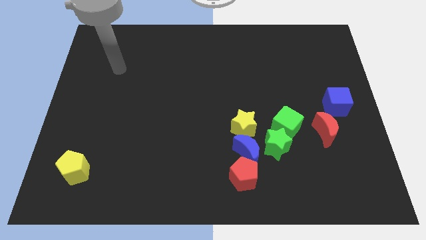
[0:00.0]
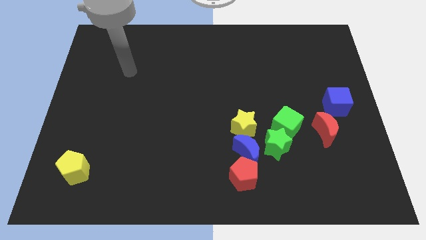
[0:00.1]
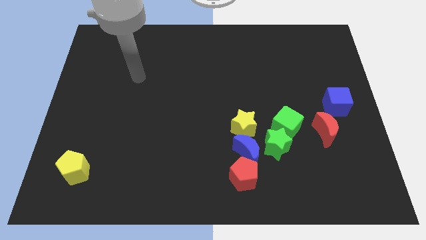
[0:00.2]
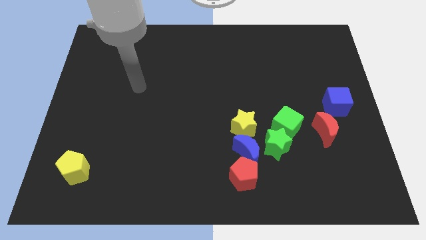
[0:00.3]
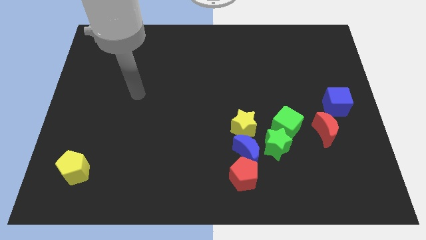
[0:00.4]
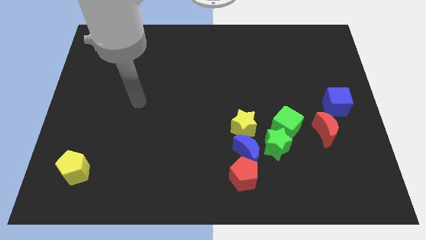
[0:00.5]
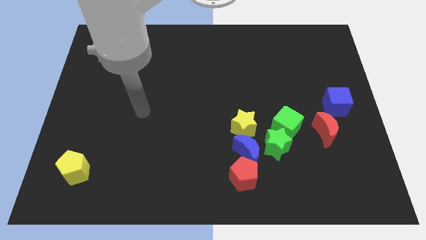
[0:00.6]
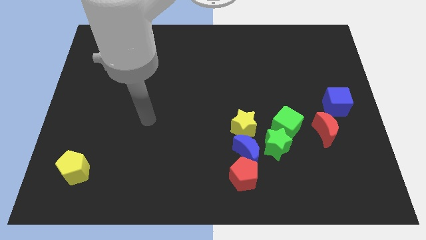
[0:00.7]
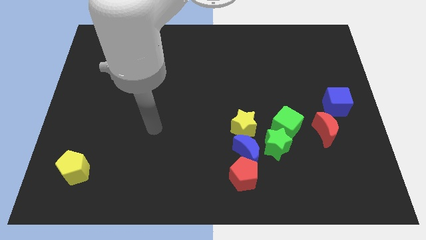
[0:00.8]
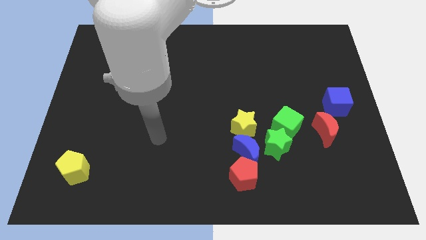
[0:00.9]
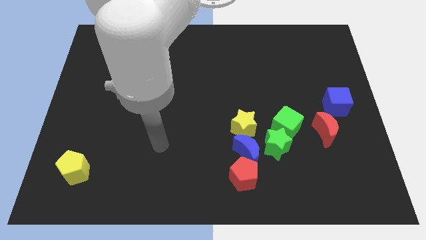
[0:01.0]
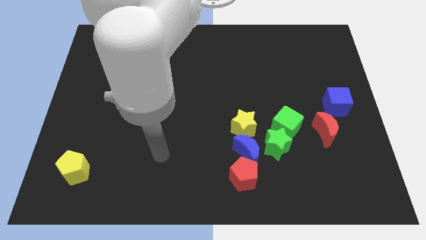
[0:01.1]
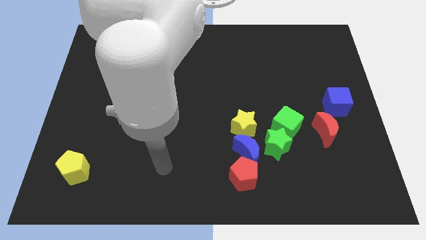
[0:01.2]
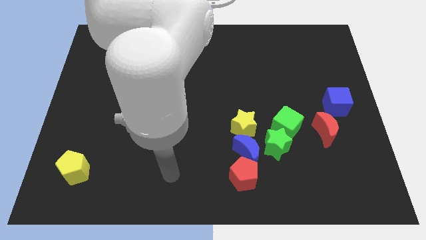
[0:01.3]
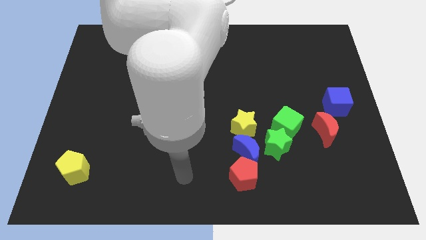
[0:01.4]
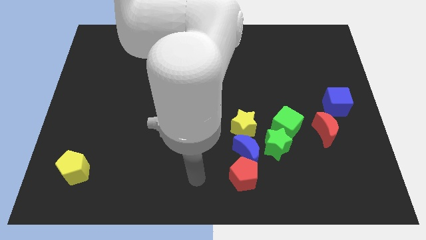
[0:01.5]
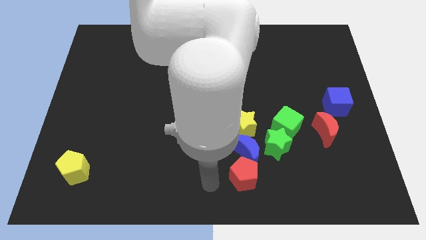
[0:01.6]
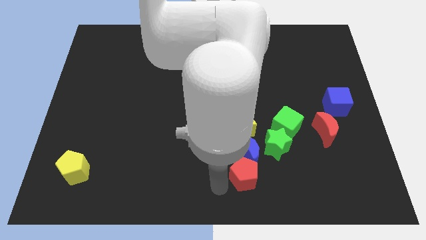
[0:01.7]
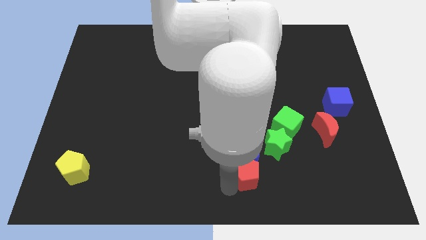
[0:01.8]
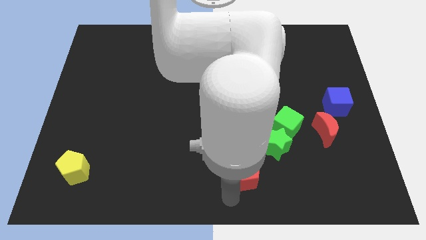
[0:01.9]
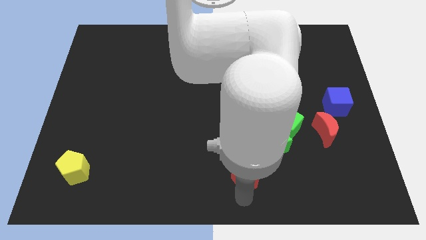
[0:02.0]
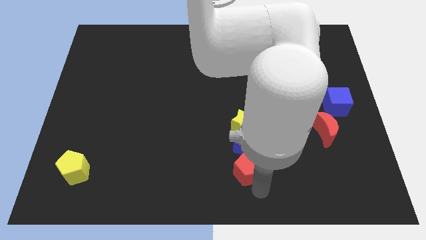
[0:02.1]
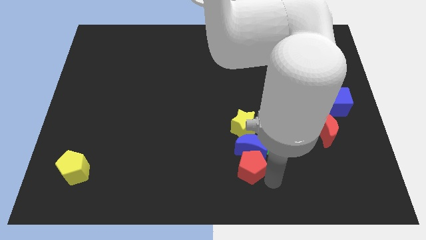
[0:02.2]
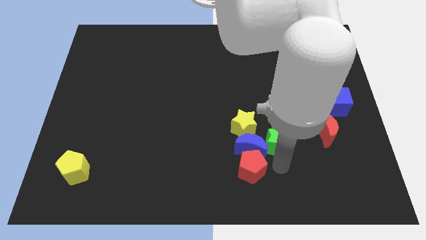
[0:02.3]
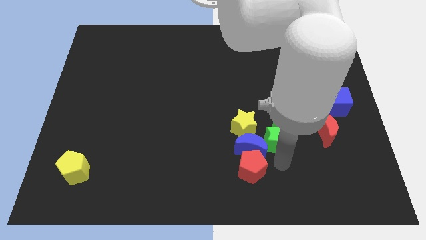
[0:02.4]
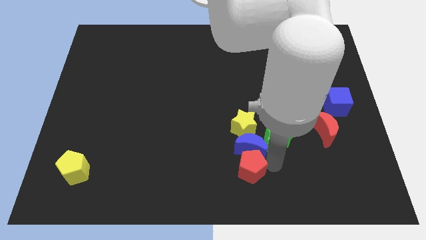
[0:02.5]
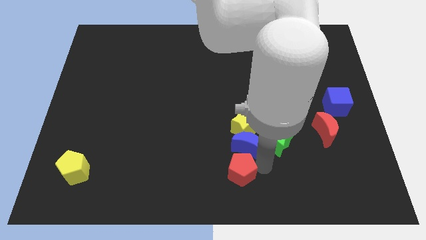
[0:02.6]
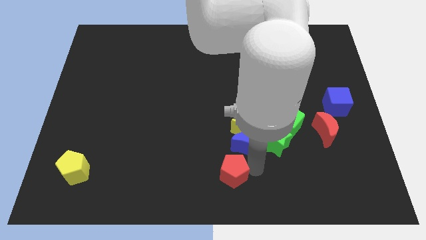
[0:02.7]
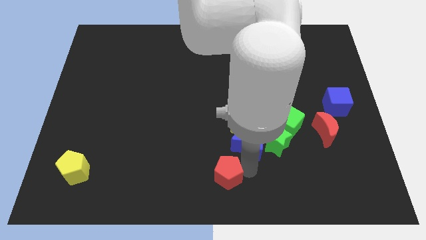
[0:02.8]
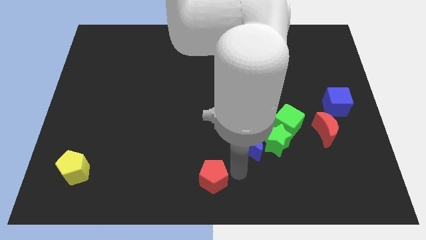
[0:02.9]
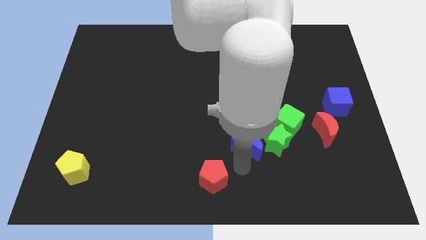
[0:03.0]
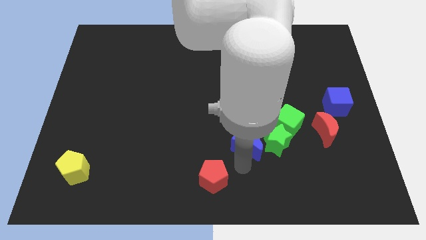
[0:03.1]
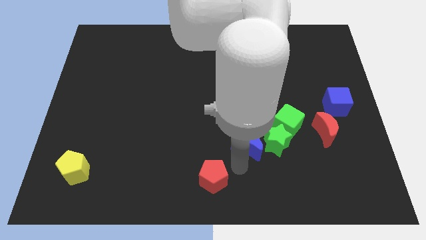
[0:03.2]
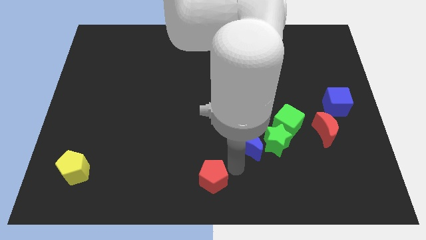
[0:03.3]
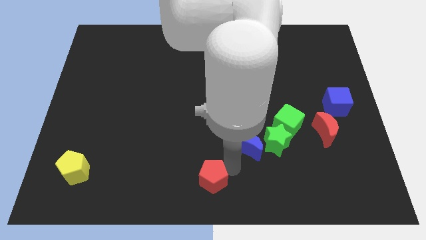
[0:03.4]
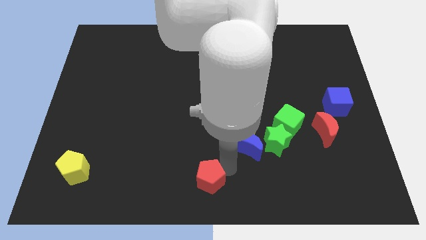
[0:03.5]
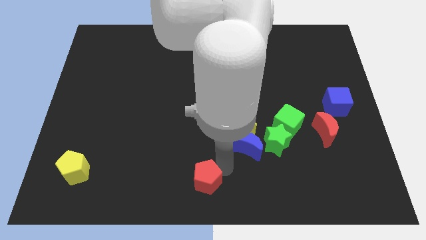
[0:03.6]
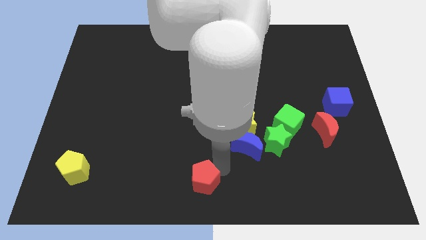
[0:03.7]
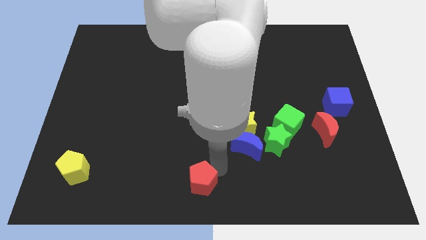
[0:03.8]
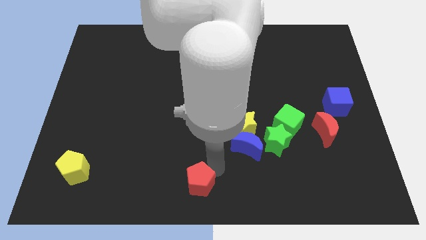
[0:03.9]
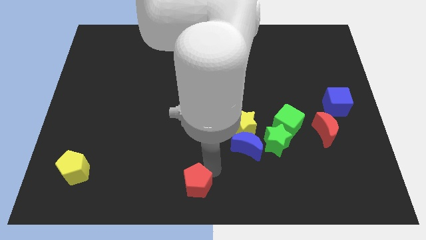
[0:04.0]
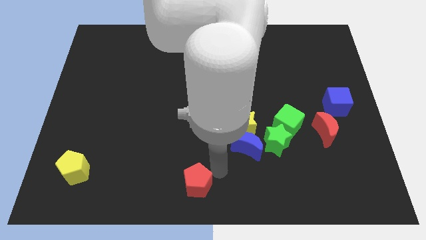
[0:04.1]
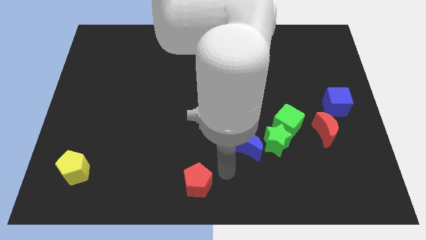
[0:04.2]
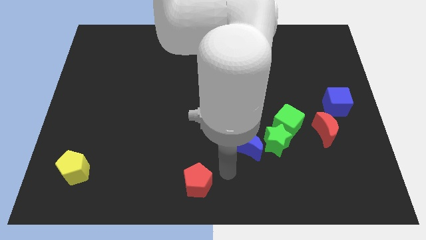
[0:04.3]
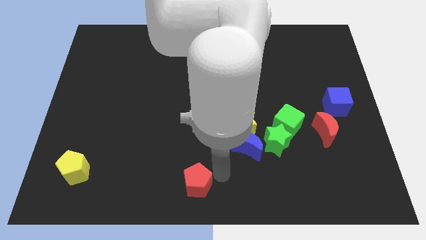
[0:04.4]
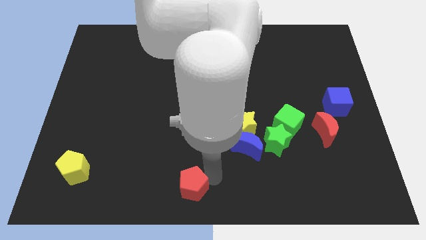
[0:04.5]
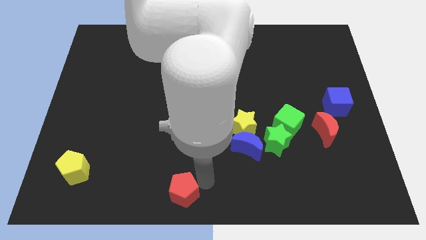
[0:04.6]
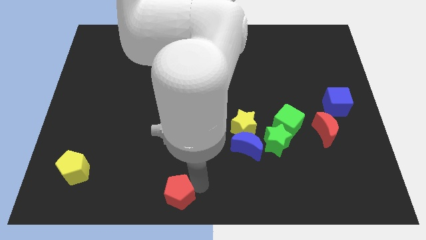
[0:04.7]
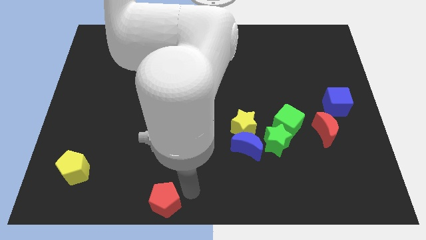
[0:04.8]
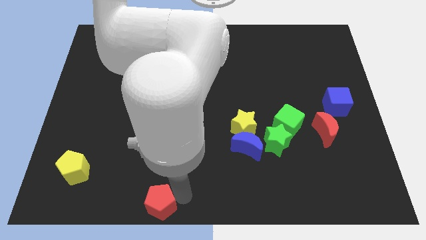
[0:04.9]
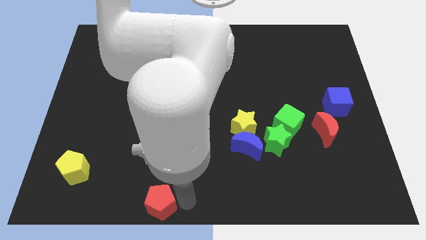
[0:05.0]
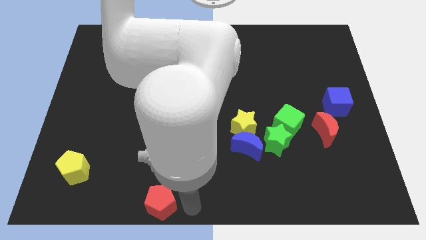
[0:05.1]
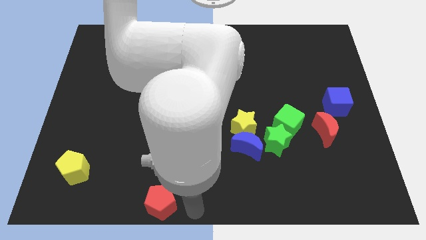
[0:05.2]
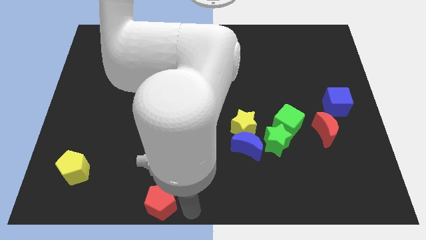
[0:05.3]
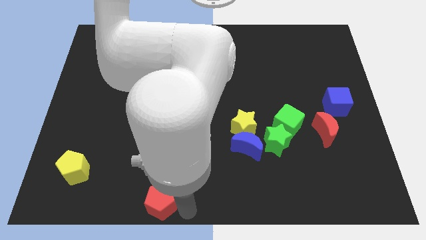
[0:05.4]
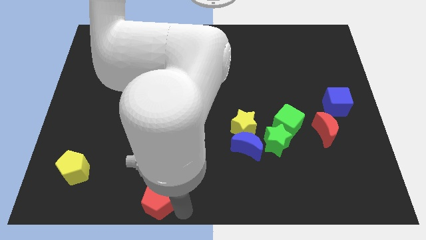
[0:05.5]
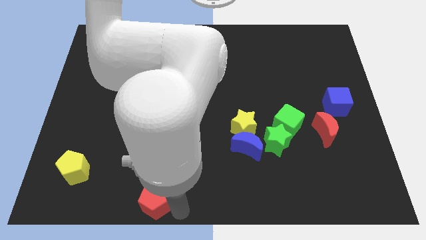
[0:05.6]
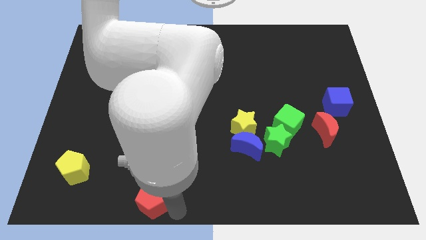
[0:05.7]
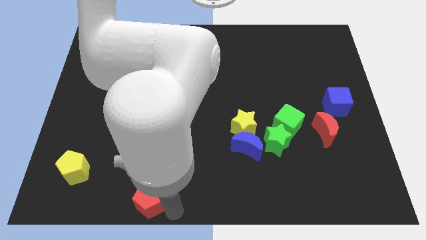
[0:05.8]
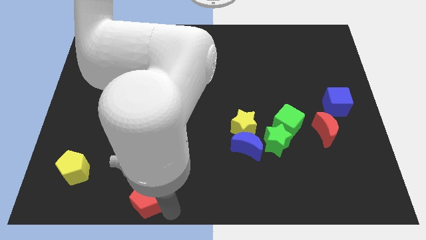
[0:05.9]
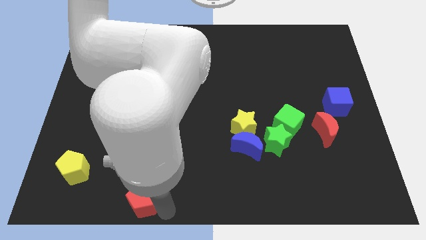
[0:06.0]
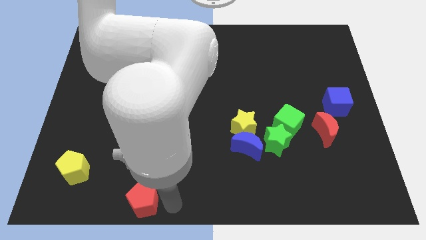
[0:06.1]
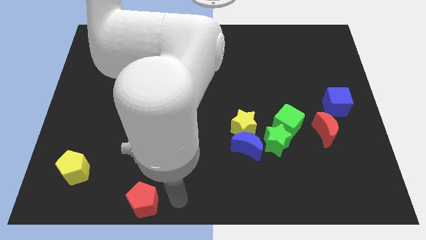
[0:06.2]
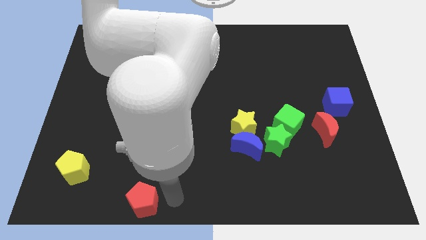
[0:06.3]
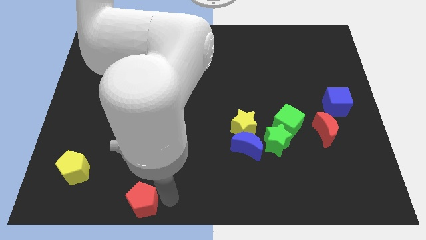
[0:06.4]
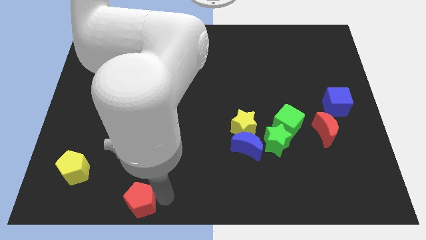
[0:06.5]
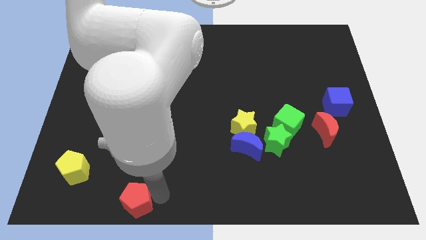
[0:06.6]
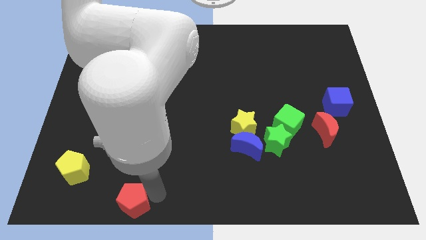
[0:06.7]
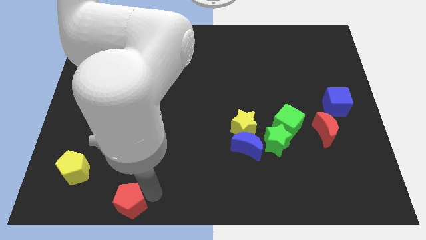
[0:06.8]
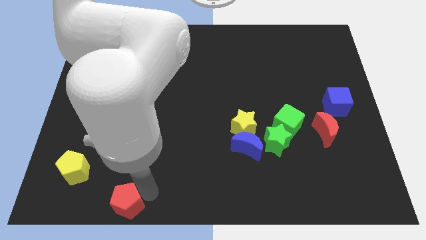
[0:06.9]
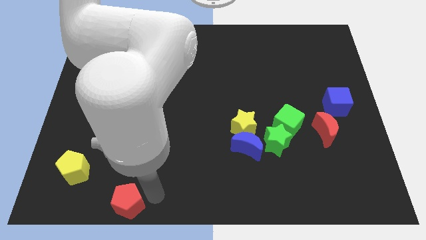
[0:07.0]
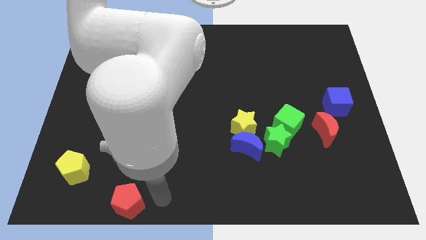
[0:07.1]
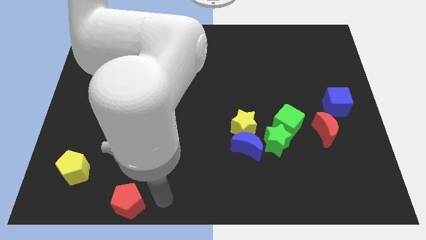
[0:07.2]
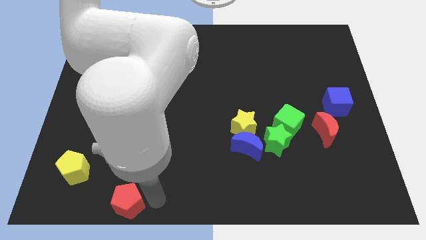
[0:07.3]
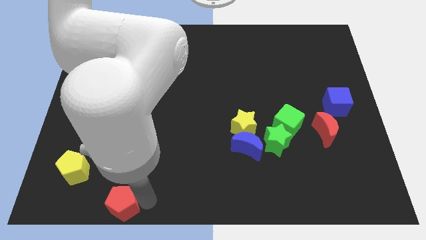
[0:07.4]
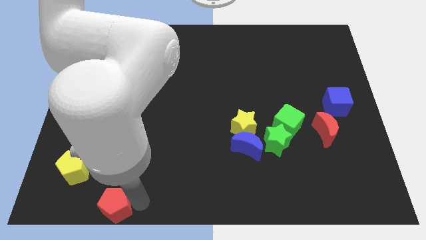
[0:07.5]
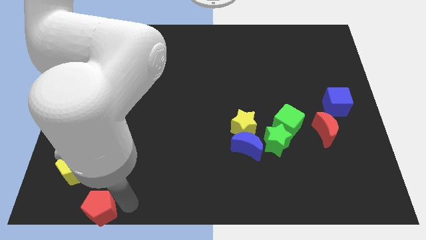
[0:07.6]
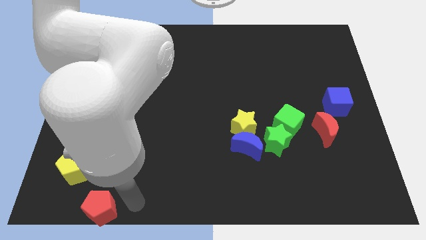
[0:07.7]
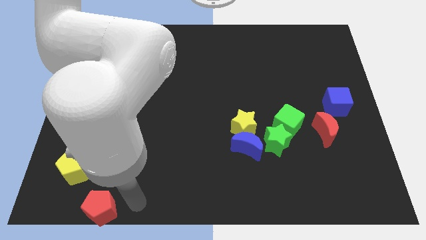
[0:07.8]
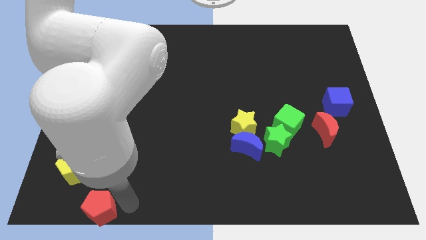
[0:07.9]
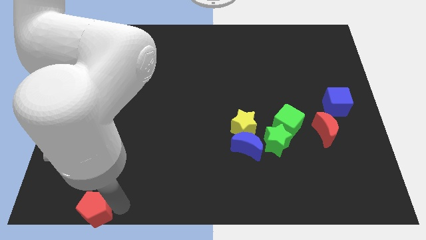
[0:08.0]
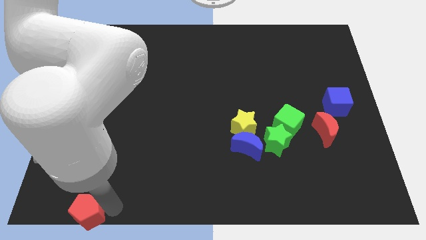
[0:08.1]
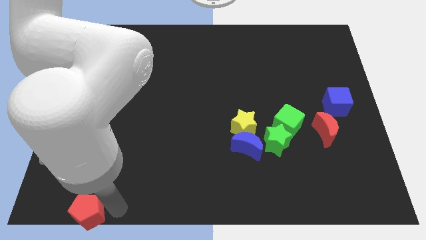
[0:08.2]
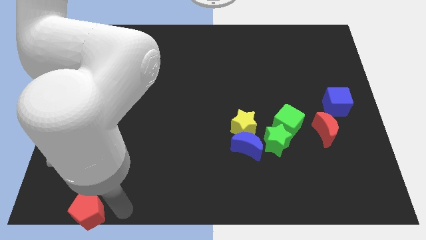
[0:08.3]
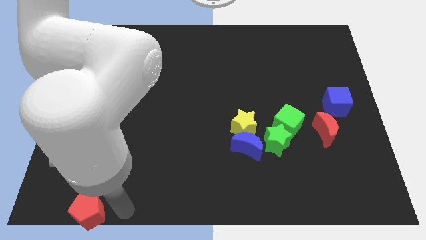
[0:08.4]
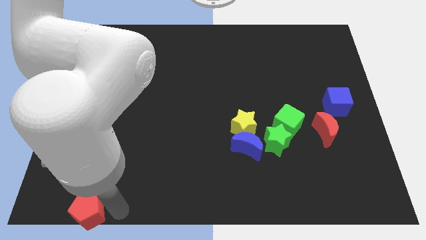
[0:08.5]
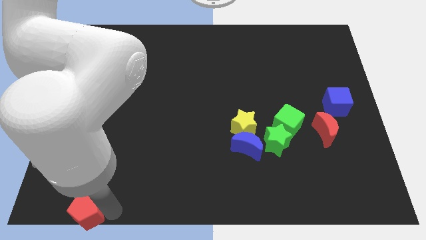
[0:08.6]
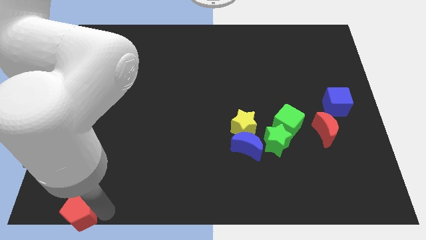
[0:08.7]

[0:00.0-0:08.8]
push the red pentagon to the bottom left corner
